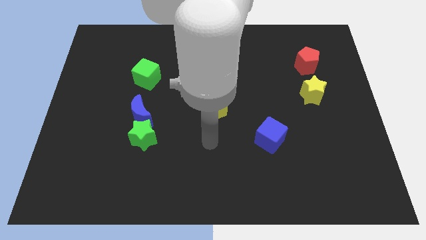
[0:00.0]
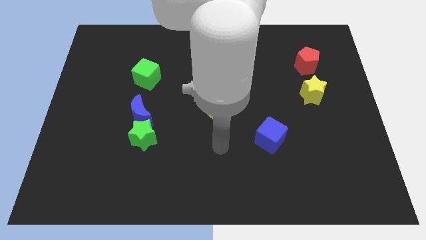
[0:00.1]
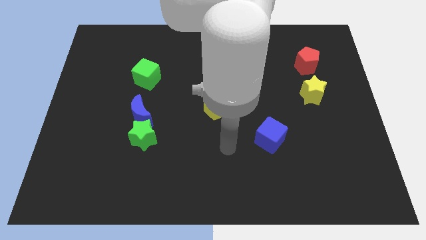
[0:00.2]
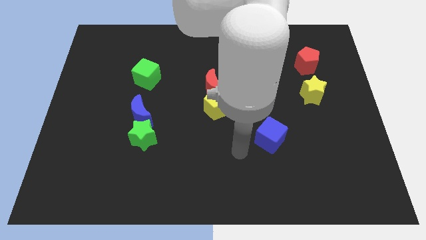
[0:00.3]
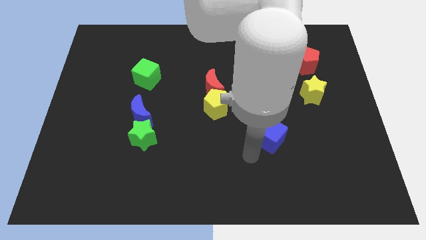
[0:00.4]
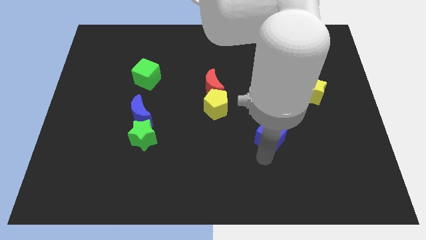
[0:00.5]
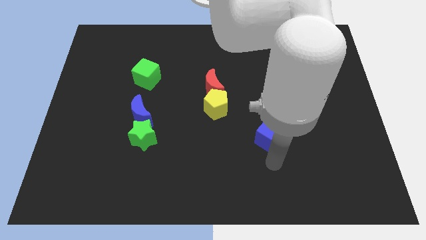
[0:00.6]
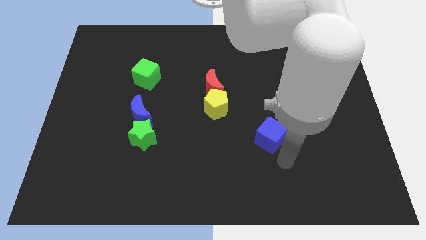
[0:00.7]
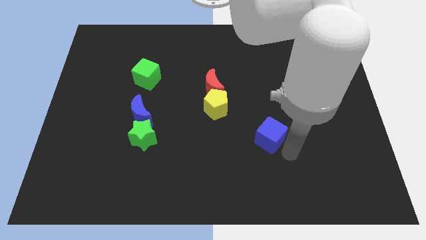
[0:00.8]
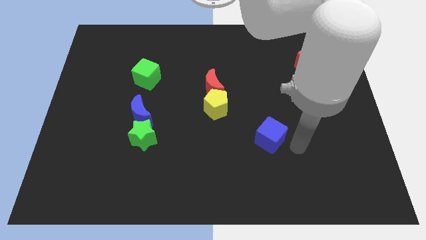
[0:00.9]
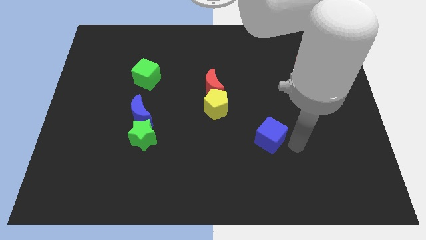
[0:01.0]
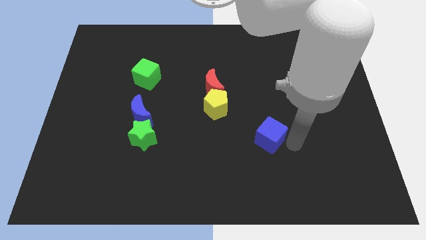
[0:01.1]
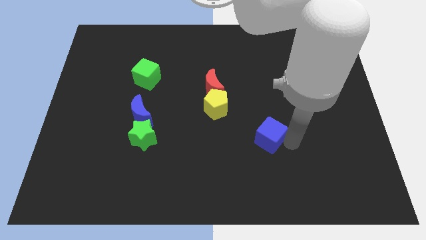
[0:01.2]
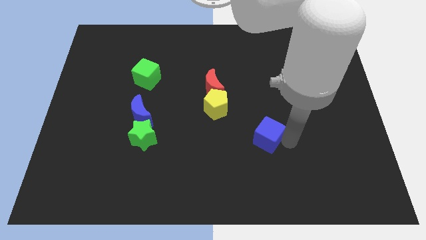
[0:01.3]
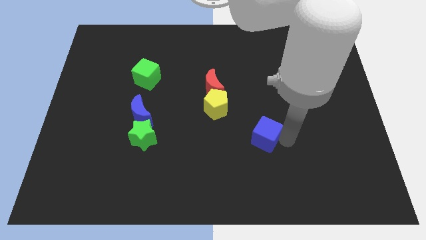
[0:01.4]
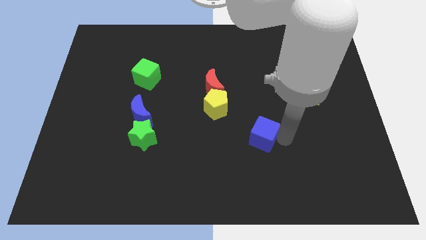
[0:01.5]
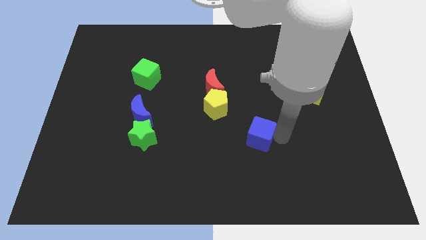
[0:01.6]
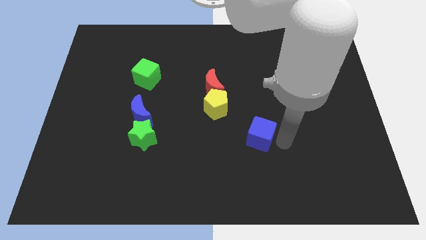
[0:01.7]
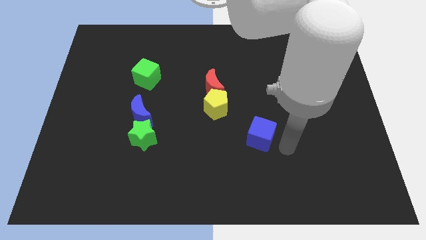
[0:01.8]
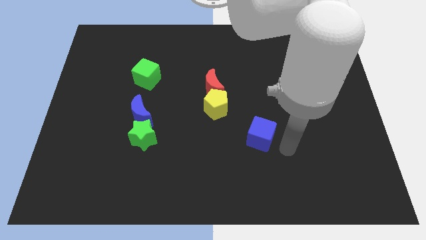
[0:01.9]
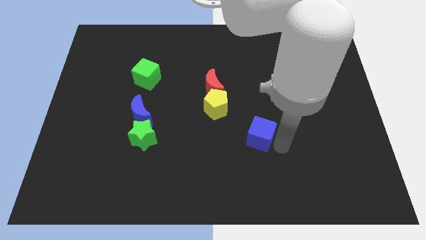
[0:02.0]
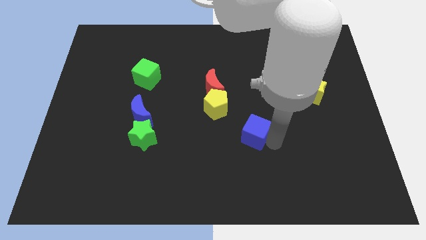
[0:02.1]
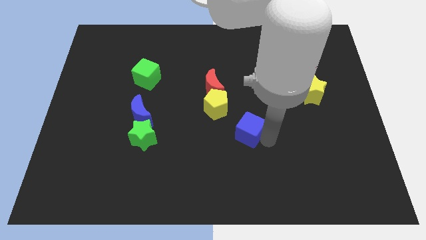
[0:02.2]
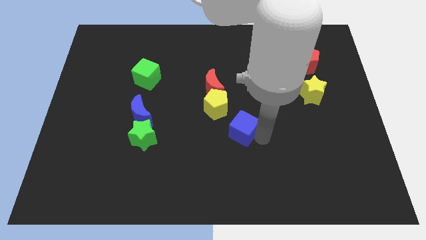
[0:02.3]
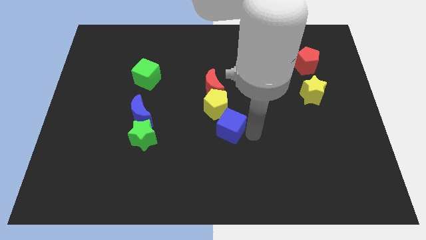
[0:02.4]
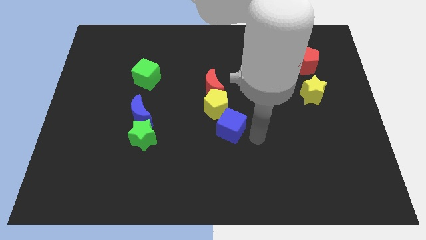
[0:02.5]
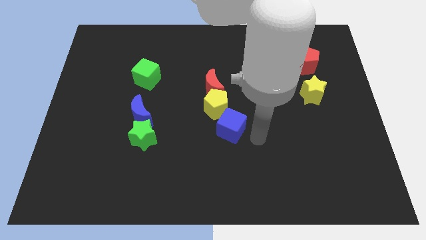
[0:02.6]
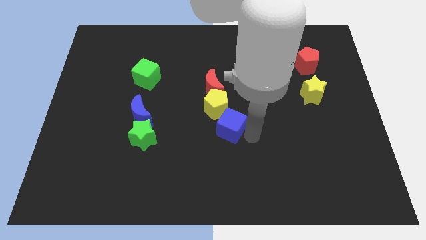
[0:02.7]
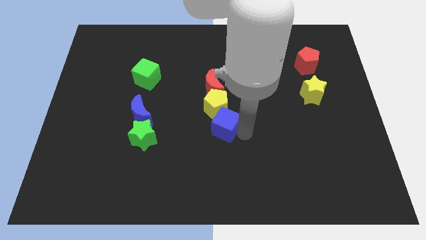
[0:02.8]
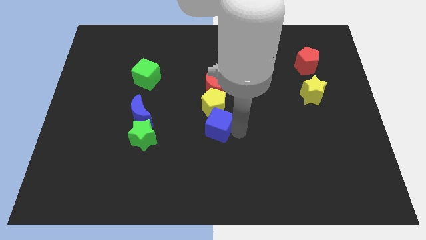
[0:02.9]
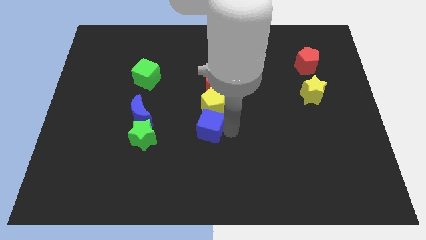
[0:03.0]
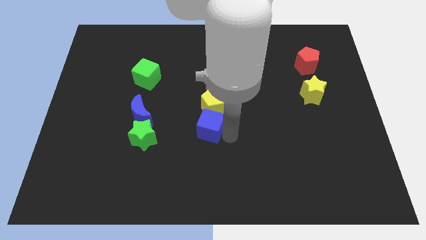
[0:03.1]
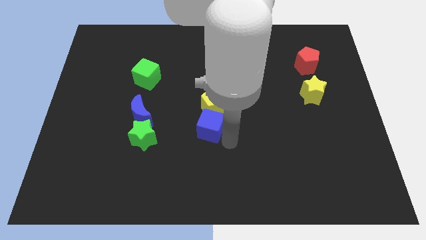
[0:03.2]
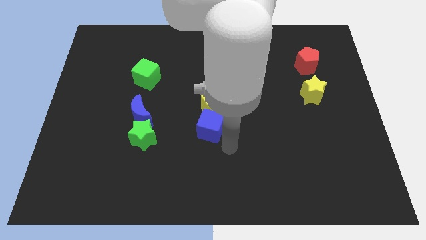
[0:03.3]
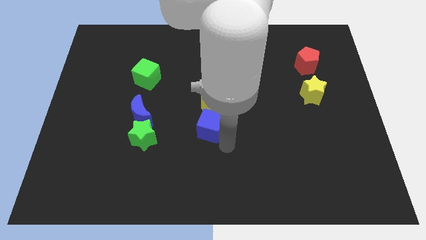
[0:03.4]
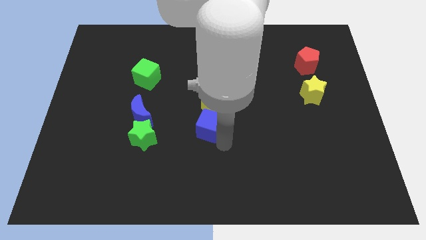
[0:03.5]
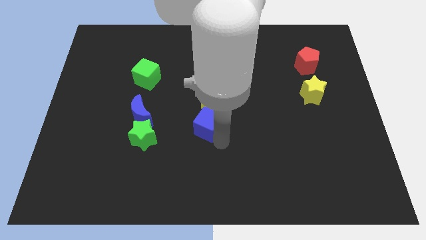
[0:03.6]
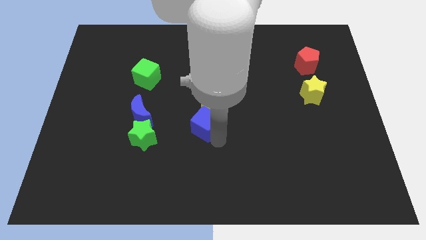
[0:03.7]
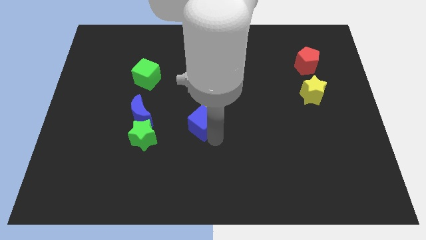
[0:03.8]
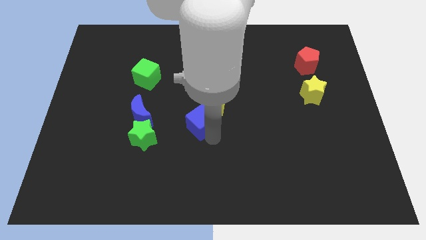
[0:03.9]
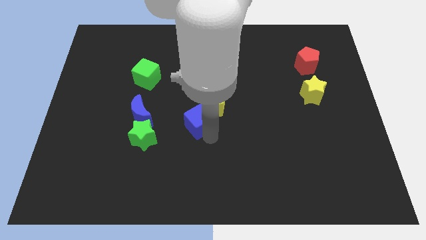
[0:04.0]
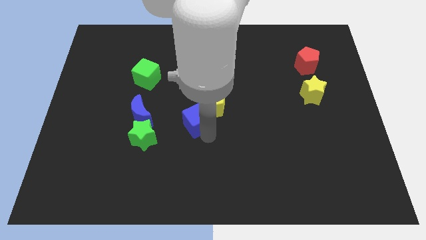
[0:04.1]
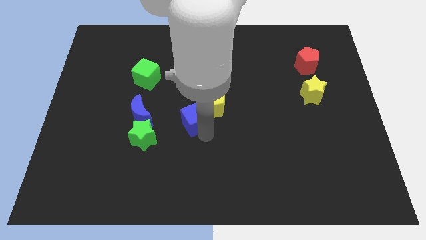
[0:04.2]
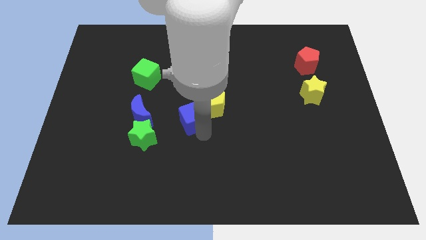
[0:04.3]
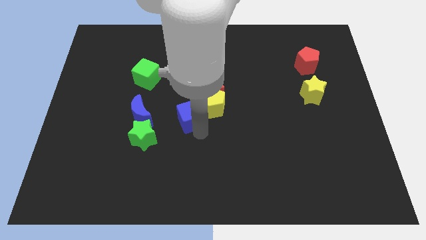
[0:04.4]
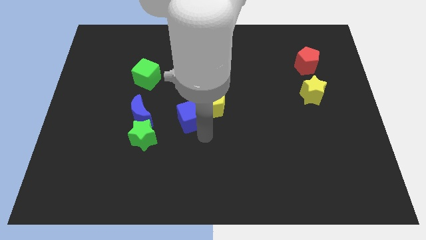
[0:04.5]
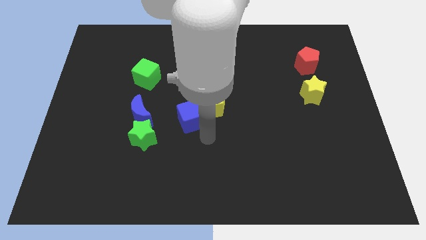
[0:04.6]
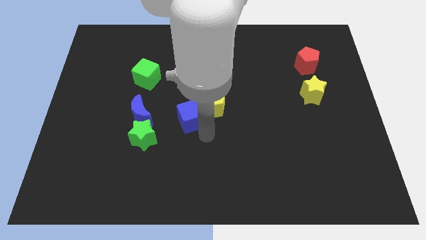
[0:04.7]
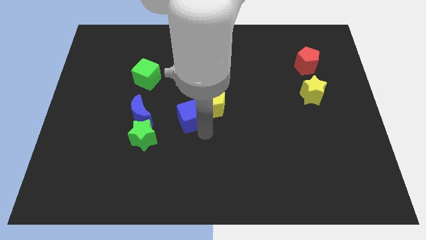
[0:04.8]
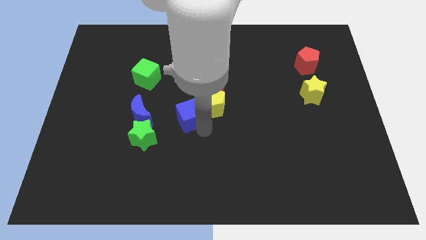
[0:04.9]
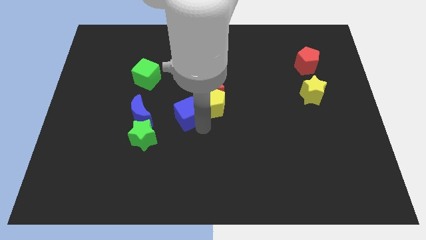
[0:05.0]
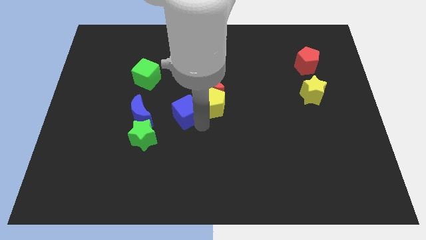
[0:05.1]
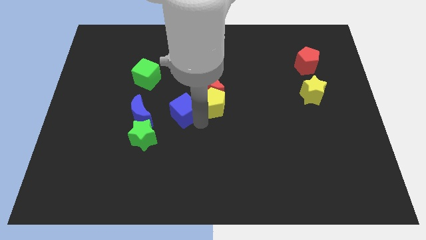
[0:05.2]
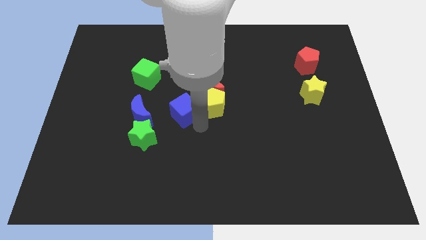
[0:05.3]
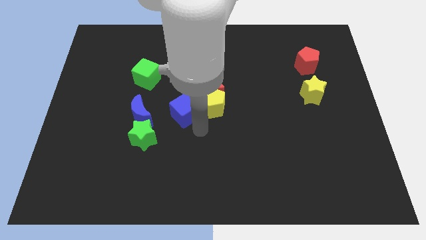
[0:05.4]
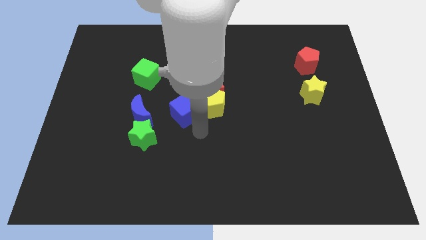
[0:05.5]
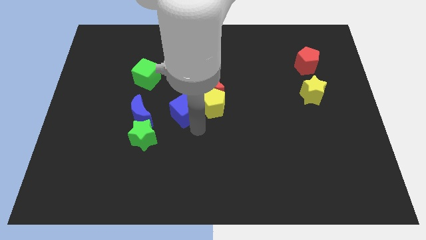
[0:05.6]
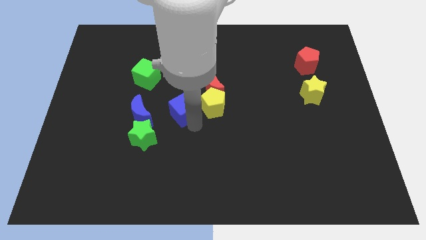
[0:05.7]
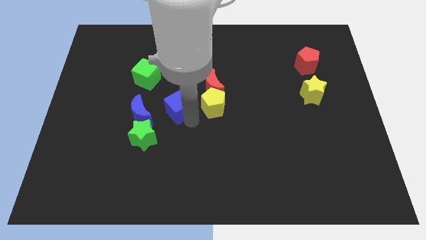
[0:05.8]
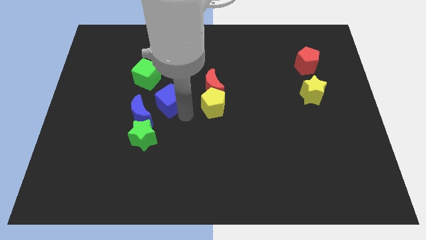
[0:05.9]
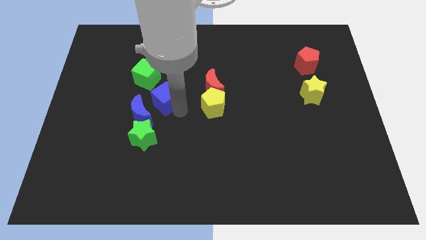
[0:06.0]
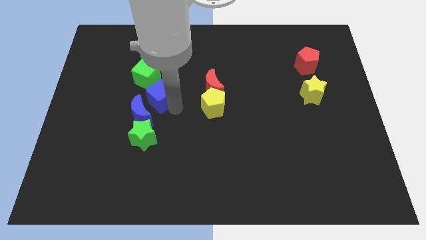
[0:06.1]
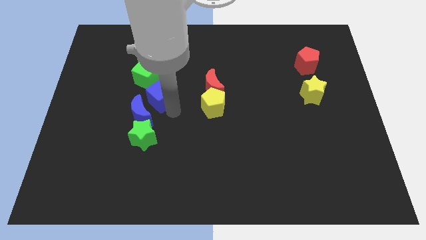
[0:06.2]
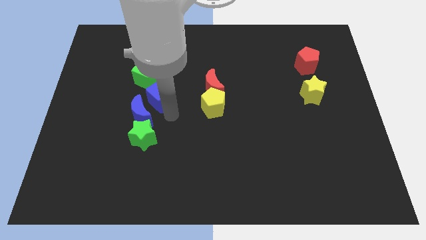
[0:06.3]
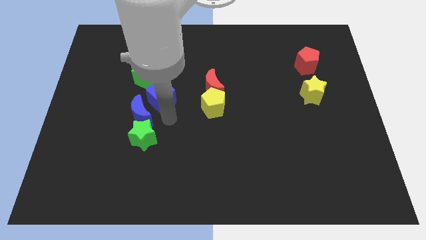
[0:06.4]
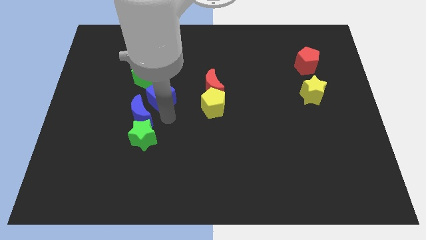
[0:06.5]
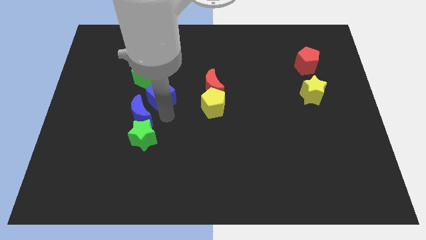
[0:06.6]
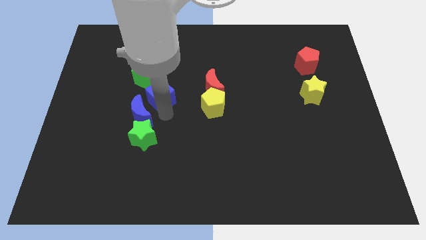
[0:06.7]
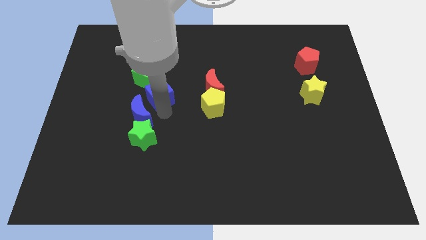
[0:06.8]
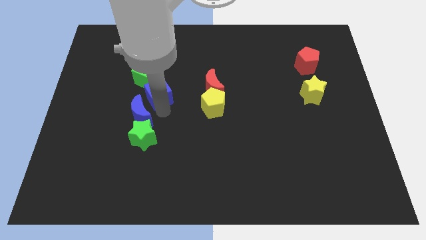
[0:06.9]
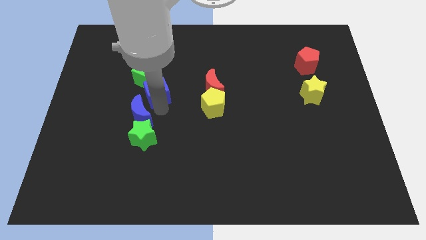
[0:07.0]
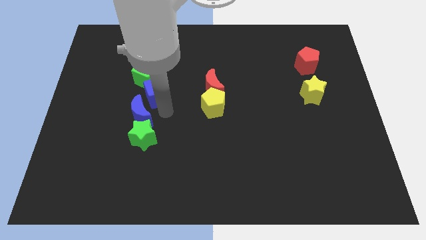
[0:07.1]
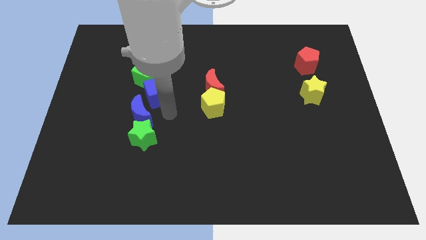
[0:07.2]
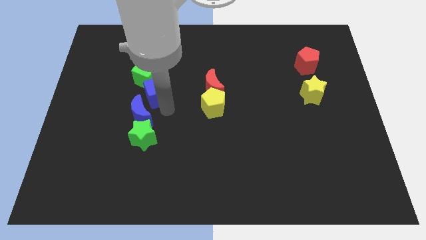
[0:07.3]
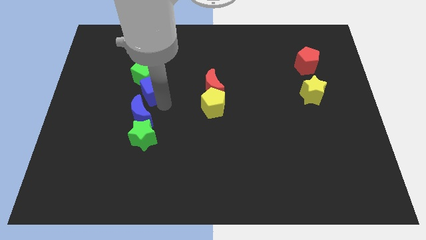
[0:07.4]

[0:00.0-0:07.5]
push the blue cube to the green cube
